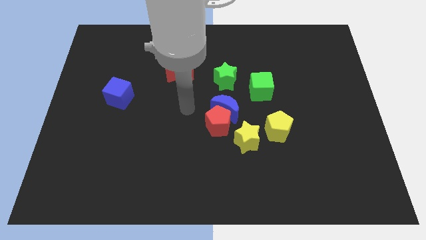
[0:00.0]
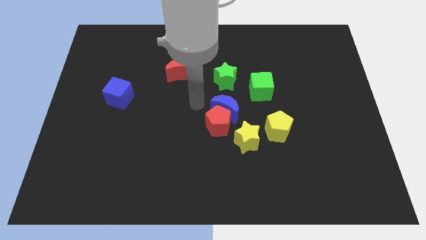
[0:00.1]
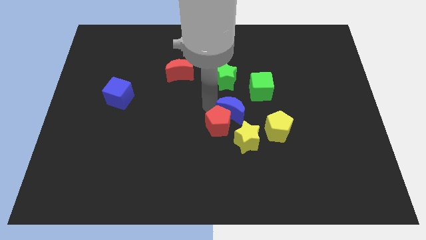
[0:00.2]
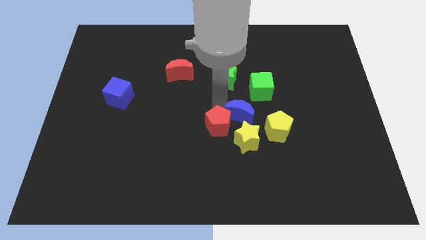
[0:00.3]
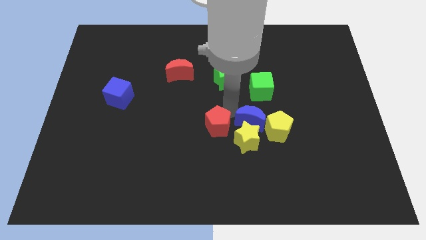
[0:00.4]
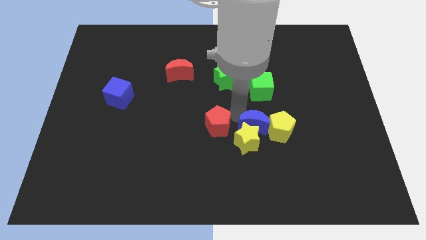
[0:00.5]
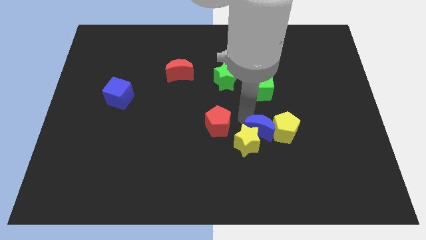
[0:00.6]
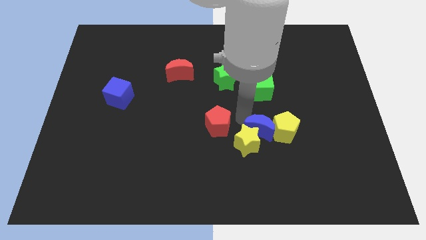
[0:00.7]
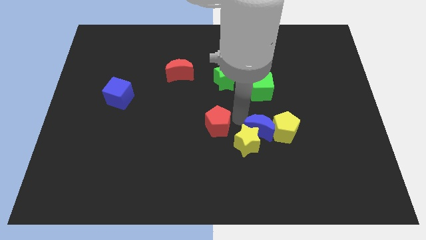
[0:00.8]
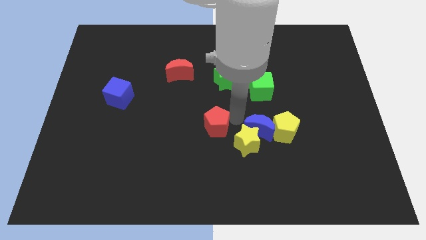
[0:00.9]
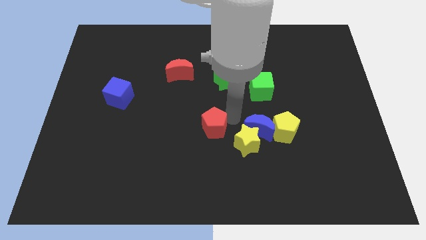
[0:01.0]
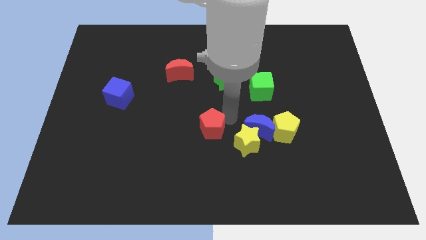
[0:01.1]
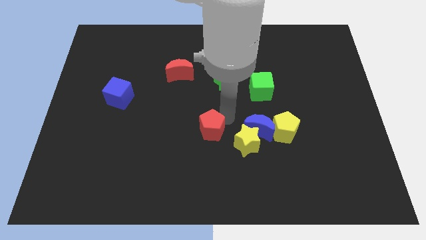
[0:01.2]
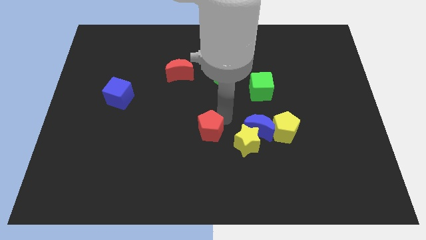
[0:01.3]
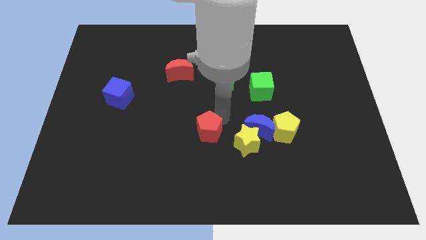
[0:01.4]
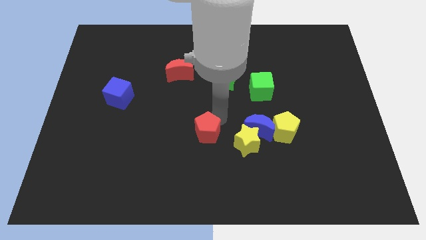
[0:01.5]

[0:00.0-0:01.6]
pull the red pentagon apart from the blue moon and yellow star

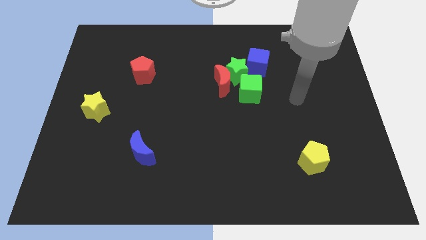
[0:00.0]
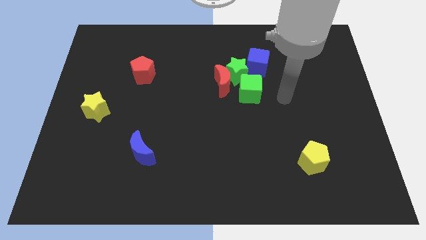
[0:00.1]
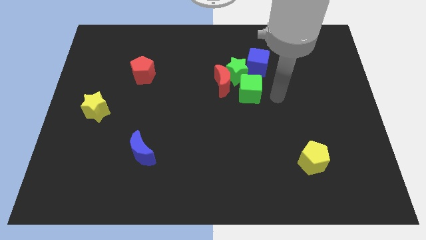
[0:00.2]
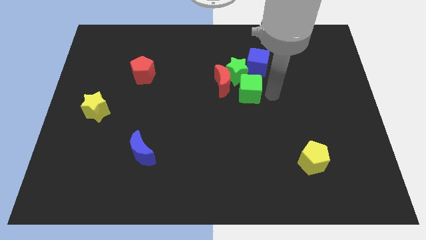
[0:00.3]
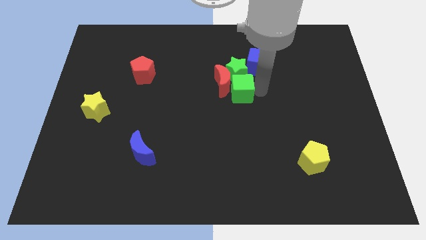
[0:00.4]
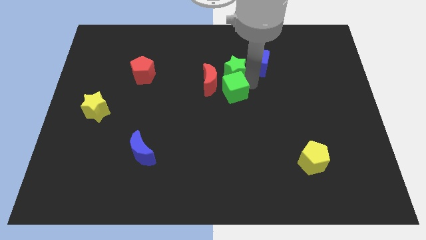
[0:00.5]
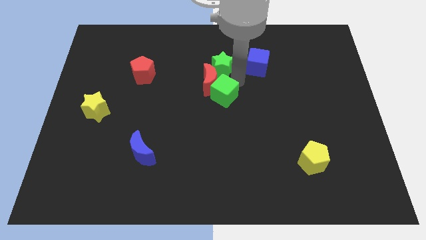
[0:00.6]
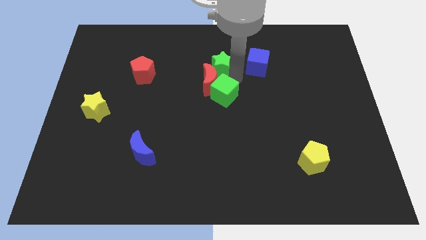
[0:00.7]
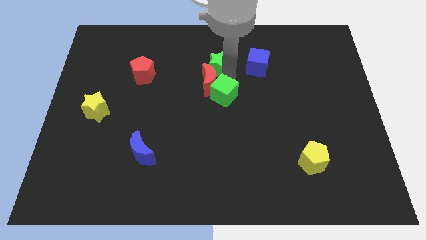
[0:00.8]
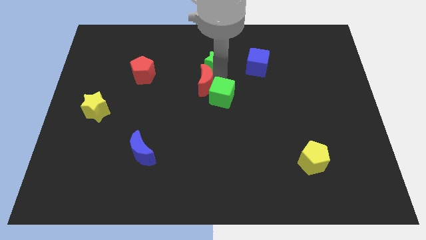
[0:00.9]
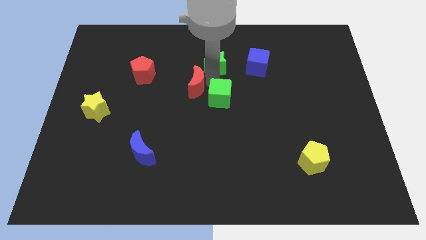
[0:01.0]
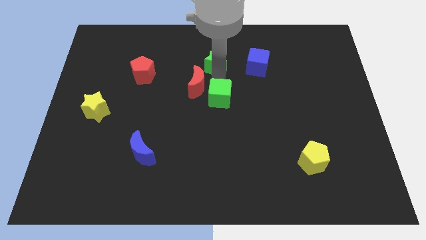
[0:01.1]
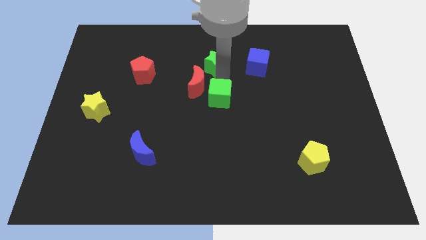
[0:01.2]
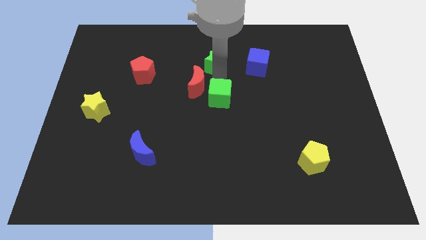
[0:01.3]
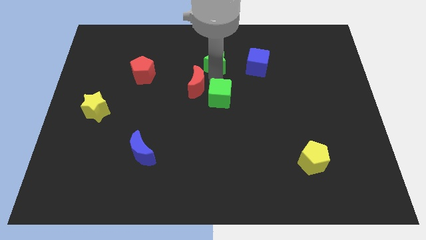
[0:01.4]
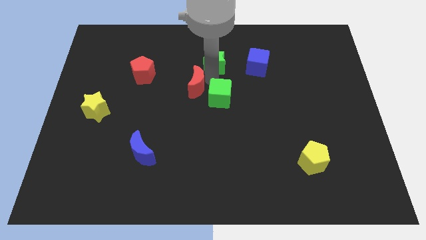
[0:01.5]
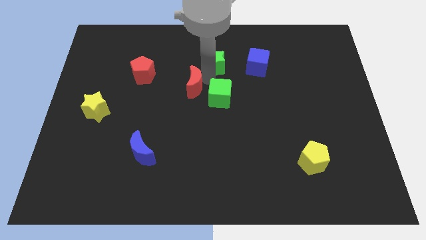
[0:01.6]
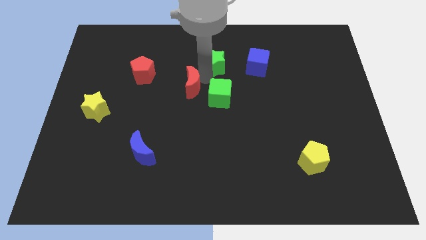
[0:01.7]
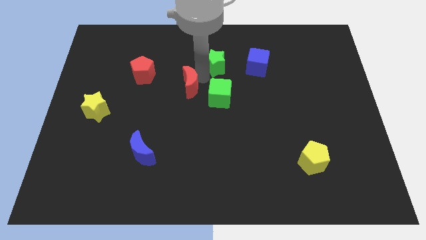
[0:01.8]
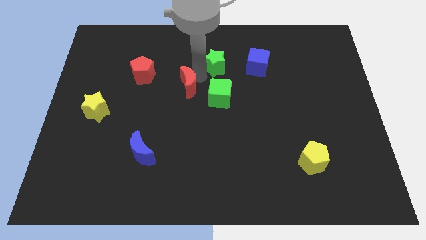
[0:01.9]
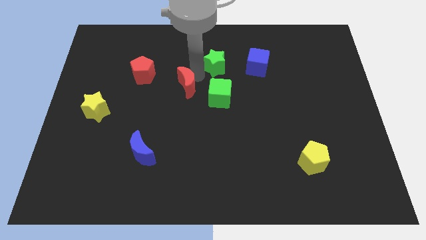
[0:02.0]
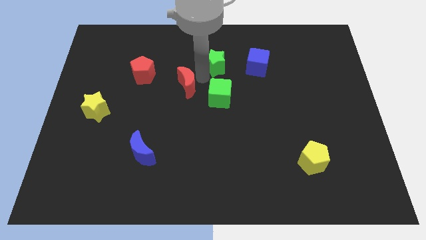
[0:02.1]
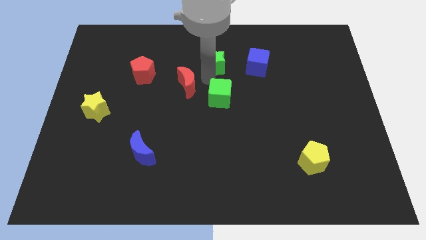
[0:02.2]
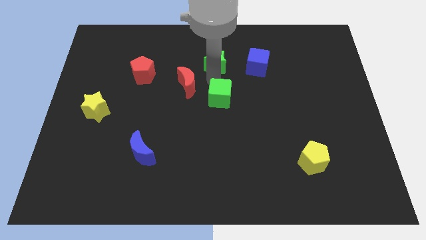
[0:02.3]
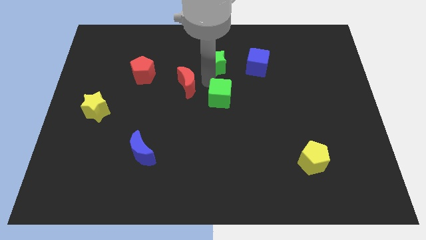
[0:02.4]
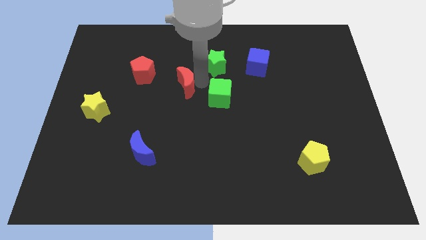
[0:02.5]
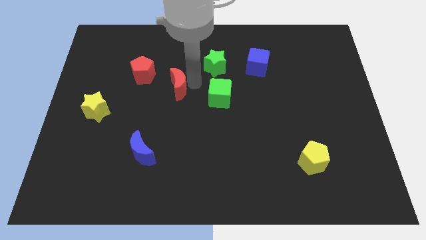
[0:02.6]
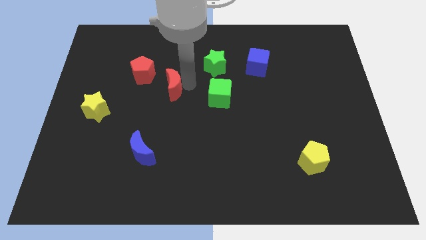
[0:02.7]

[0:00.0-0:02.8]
separate the red moon from the green star and green cube

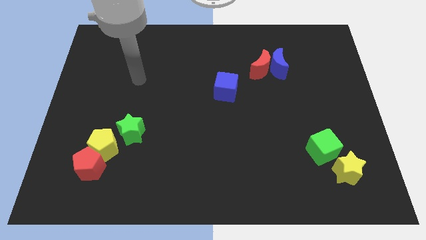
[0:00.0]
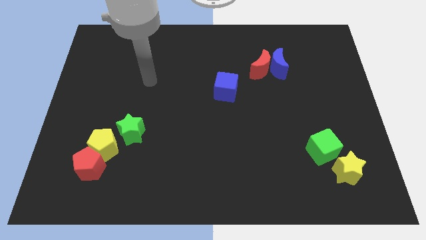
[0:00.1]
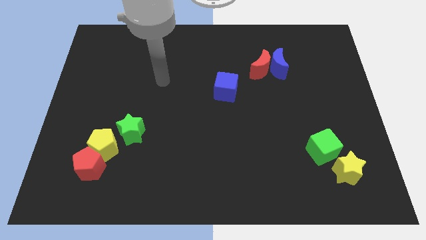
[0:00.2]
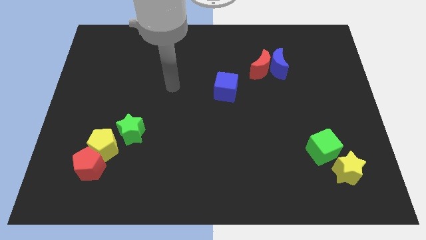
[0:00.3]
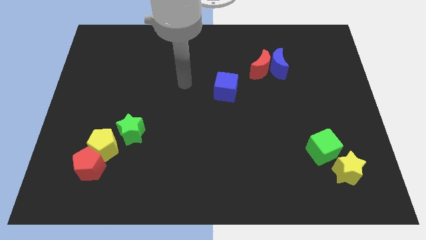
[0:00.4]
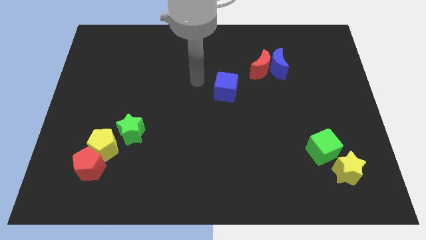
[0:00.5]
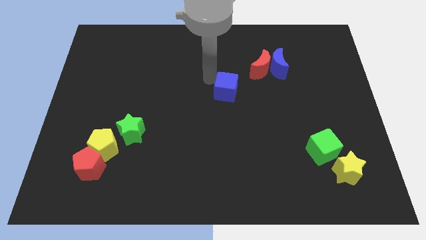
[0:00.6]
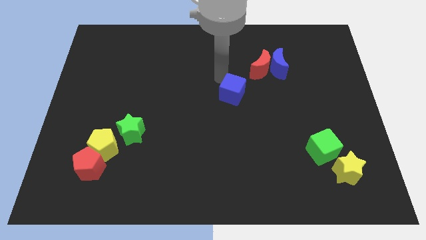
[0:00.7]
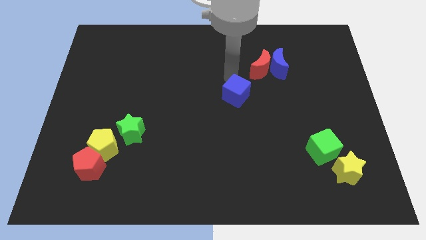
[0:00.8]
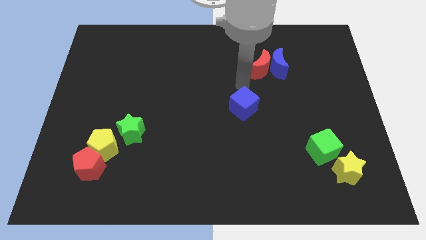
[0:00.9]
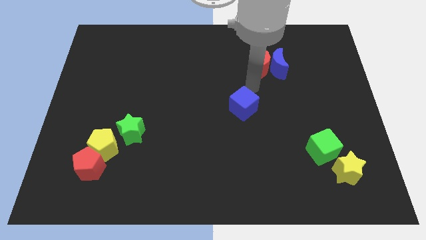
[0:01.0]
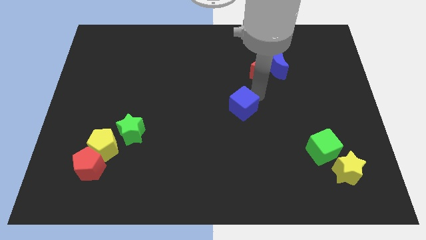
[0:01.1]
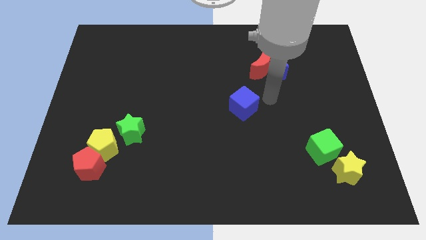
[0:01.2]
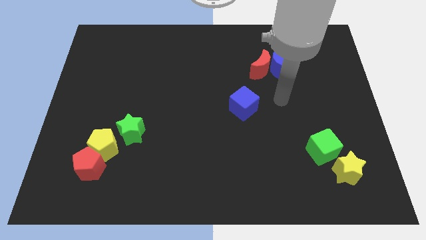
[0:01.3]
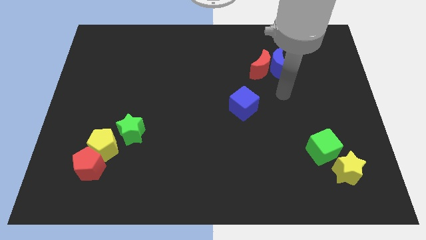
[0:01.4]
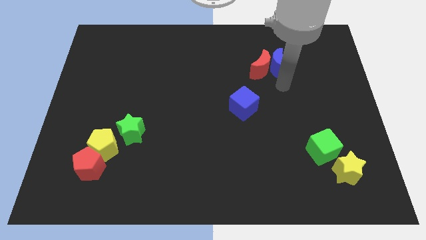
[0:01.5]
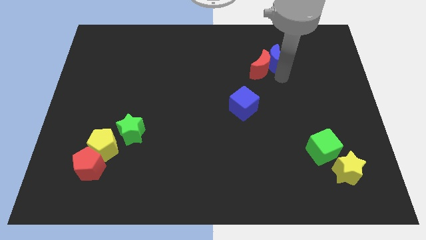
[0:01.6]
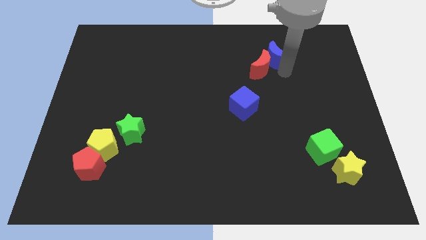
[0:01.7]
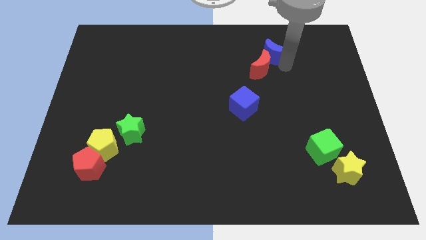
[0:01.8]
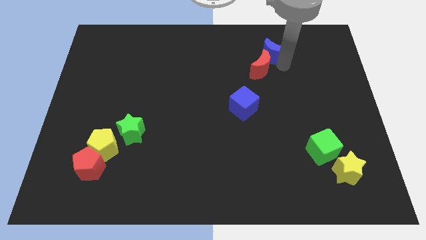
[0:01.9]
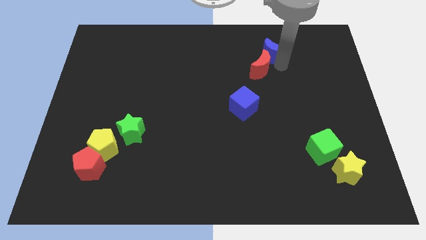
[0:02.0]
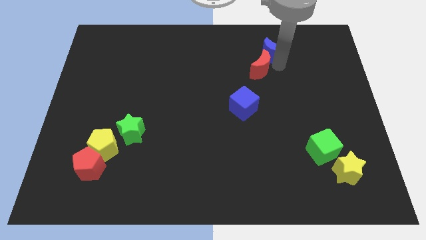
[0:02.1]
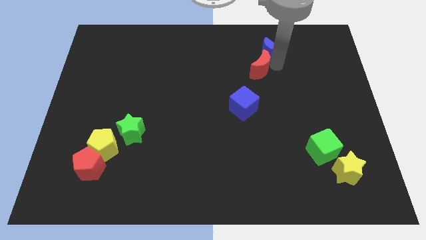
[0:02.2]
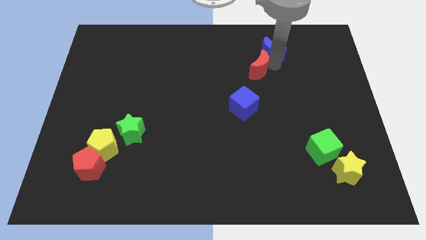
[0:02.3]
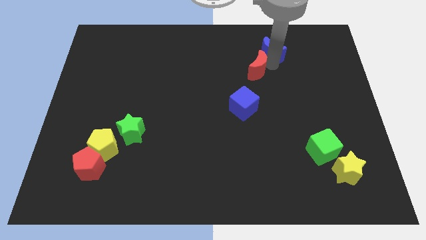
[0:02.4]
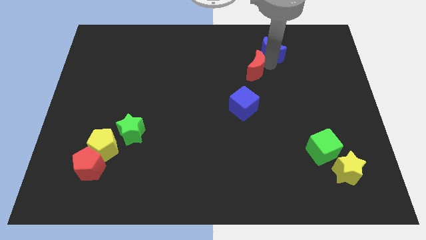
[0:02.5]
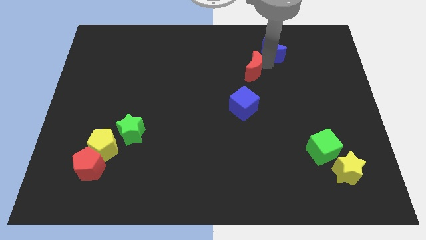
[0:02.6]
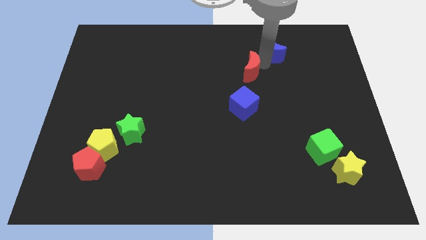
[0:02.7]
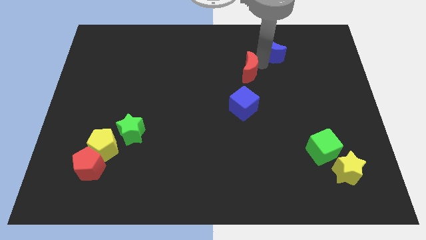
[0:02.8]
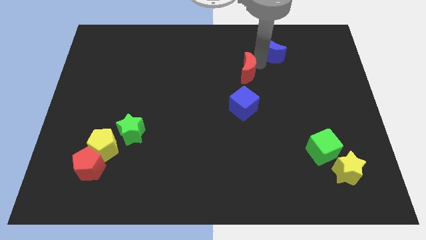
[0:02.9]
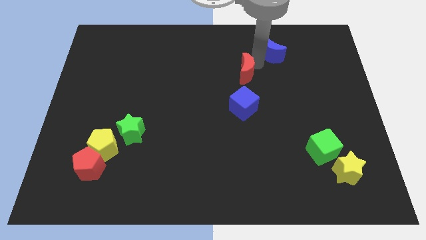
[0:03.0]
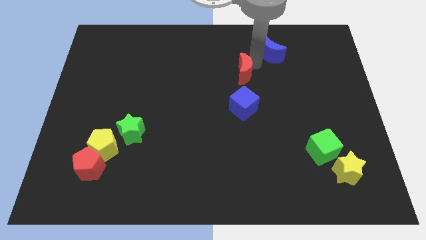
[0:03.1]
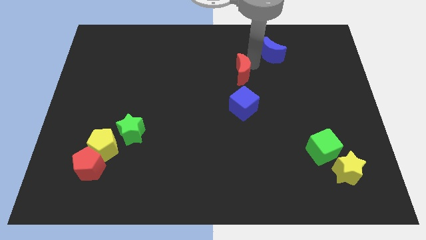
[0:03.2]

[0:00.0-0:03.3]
separate the red moon from the blue moon

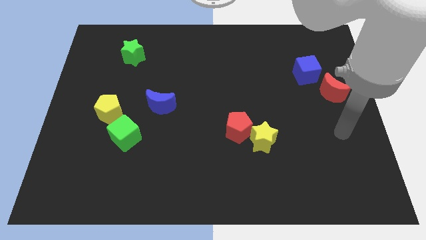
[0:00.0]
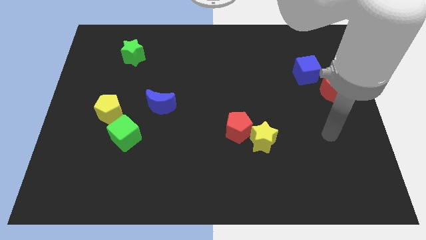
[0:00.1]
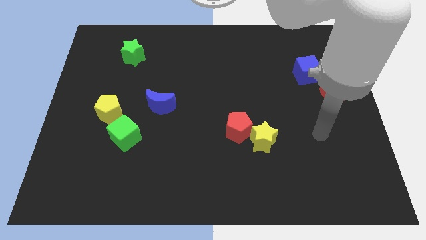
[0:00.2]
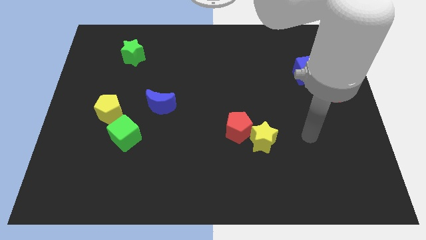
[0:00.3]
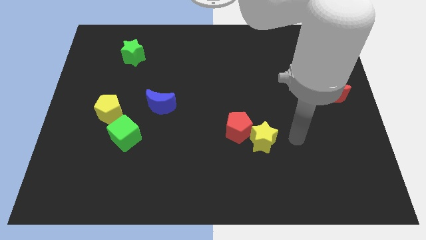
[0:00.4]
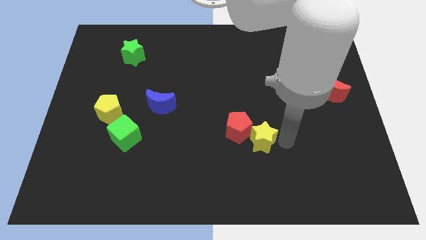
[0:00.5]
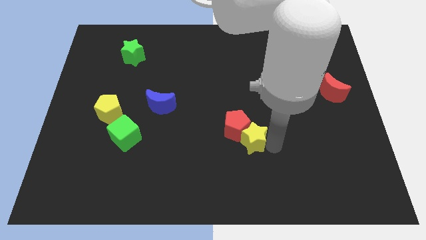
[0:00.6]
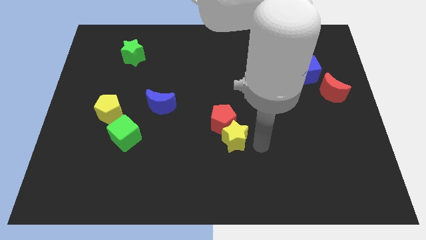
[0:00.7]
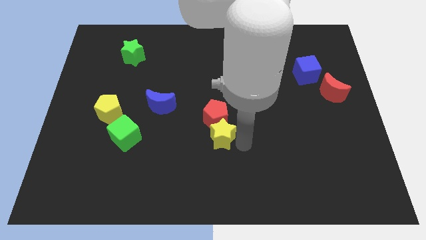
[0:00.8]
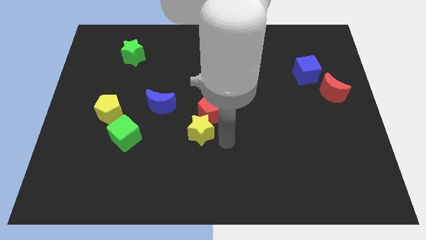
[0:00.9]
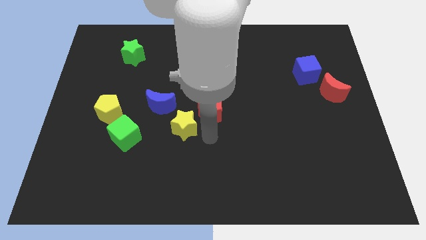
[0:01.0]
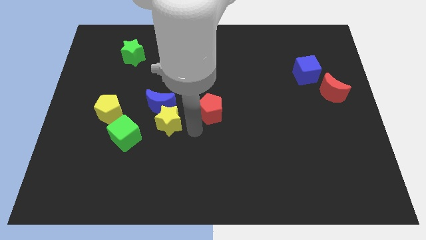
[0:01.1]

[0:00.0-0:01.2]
move the red pentagon away from the yellow star

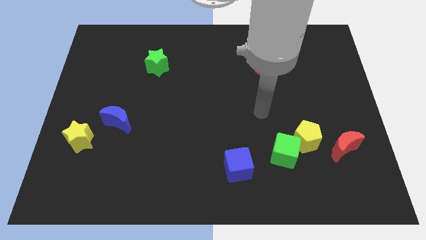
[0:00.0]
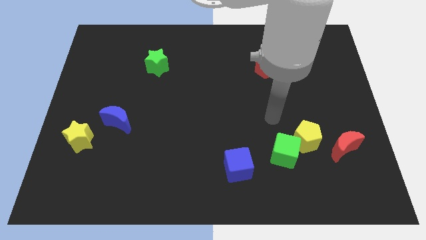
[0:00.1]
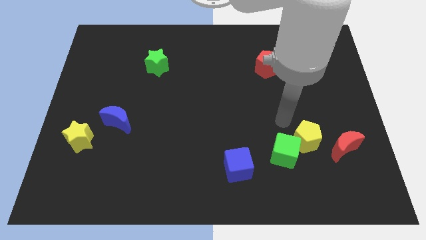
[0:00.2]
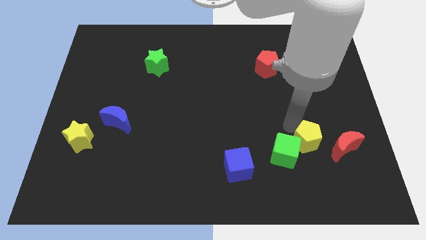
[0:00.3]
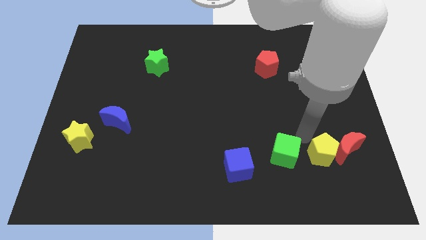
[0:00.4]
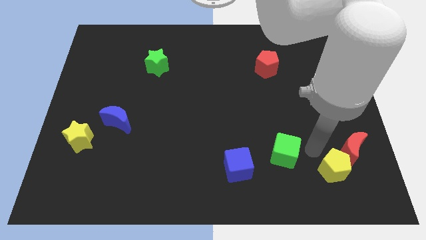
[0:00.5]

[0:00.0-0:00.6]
separate the green cube from the yellow pentagon

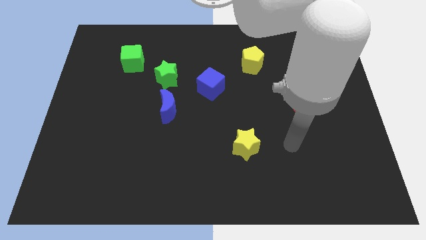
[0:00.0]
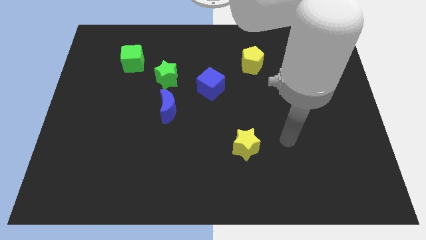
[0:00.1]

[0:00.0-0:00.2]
move the blue moon away from the green star
